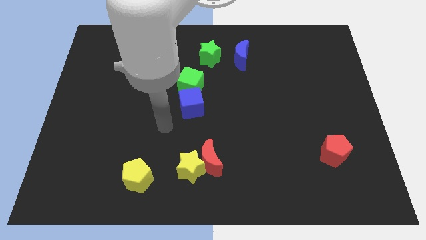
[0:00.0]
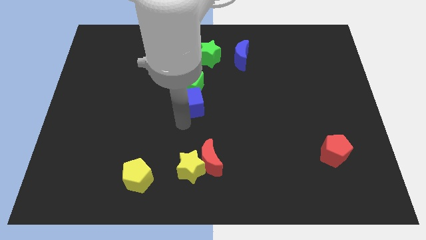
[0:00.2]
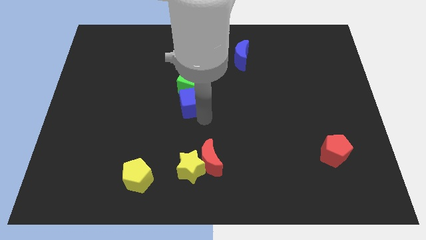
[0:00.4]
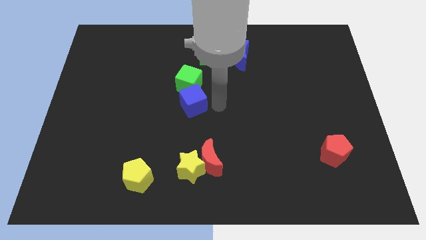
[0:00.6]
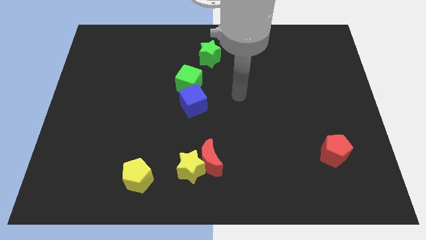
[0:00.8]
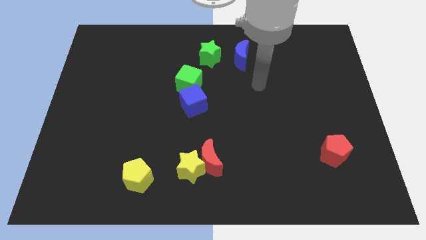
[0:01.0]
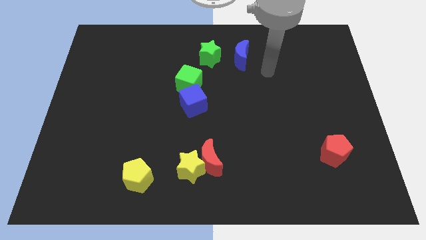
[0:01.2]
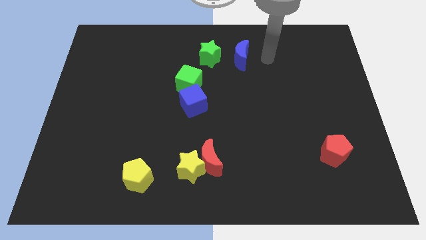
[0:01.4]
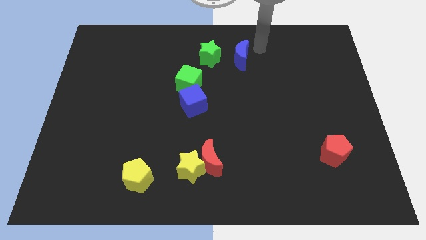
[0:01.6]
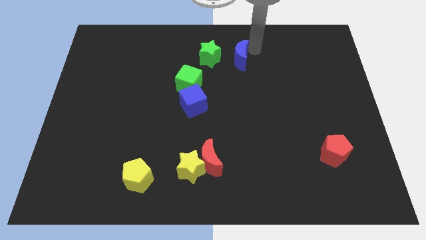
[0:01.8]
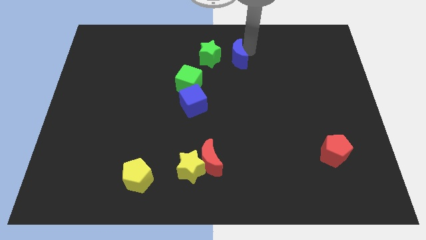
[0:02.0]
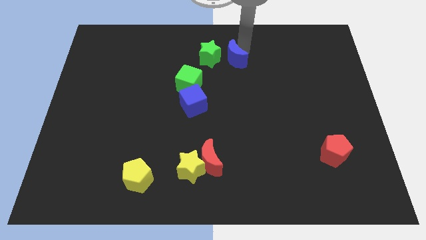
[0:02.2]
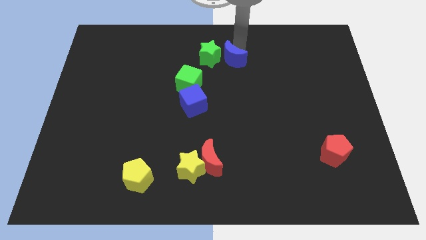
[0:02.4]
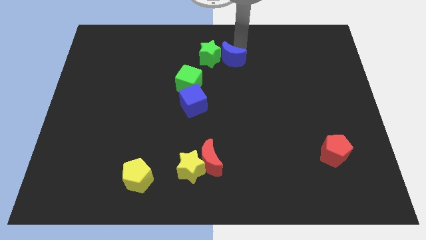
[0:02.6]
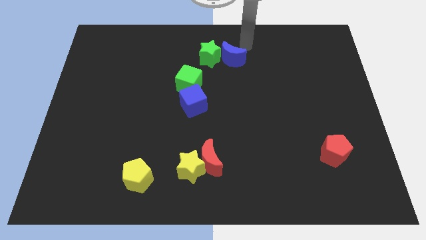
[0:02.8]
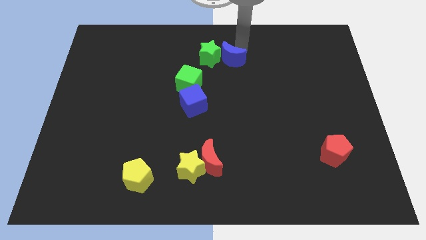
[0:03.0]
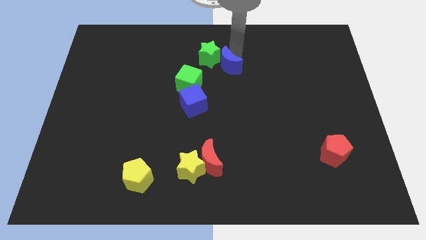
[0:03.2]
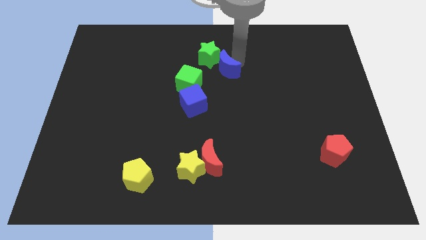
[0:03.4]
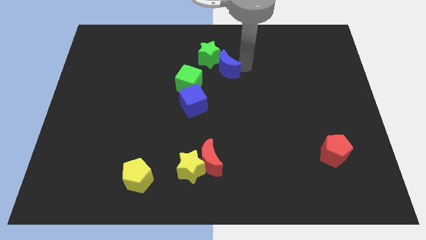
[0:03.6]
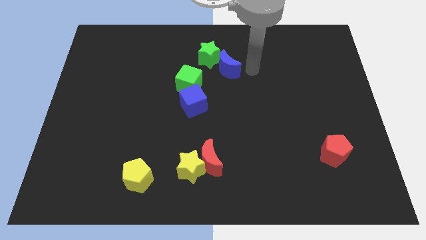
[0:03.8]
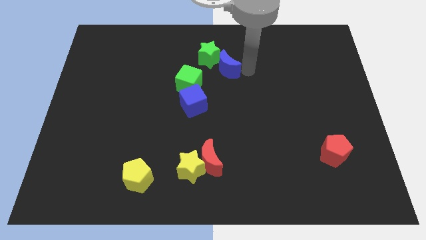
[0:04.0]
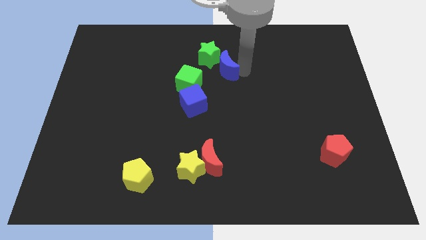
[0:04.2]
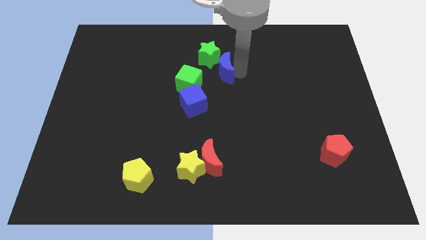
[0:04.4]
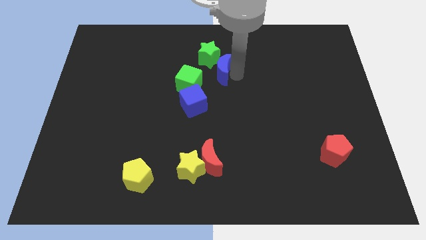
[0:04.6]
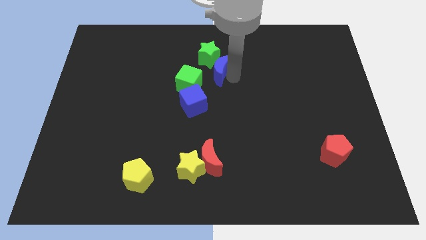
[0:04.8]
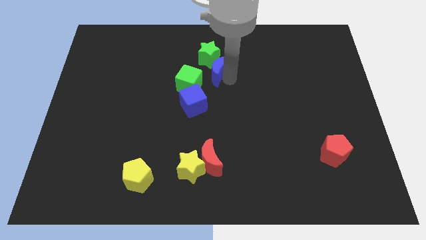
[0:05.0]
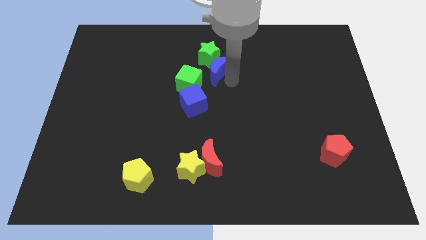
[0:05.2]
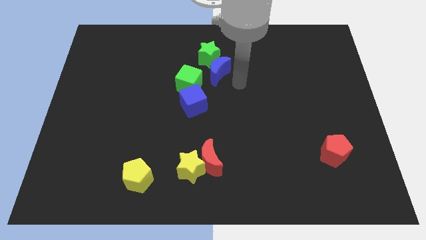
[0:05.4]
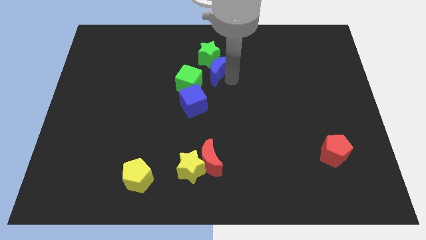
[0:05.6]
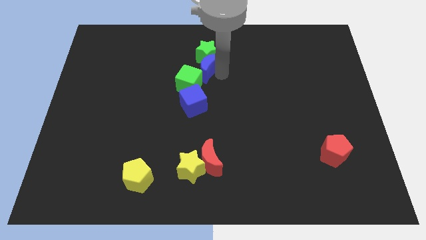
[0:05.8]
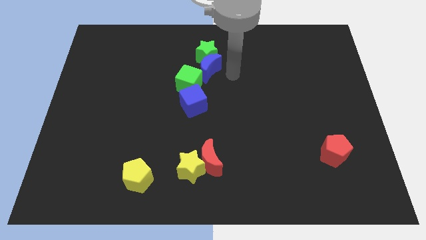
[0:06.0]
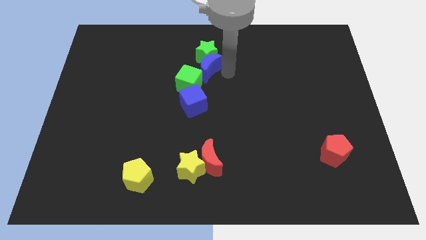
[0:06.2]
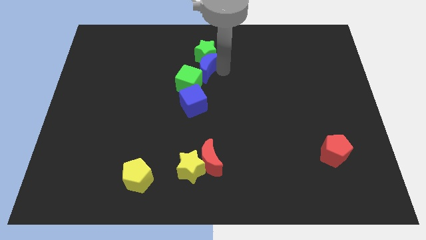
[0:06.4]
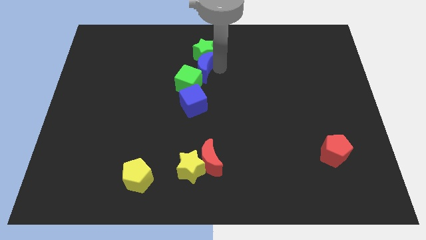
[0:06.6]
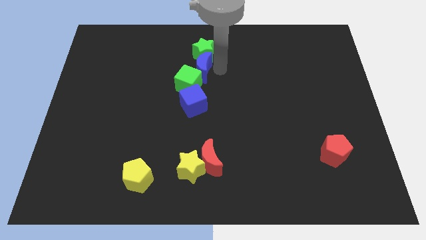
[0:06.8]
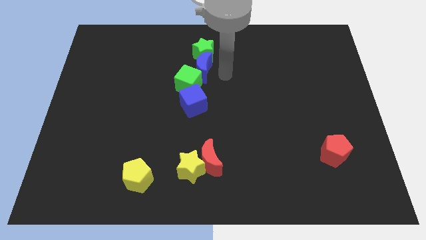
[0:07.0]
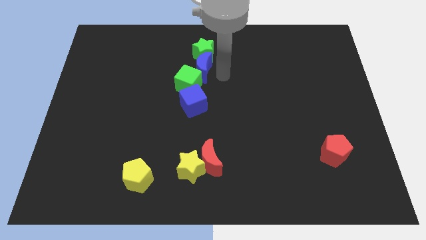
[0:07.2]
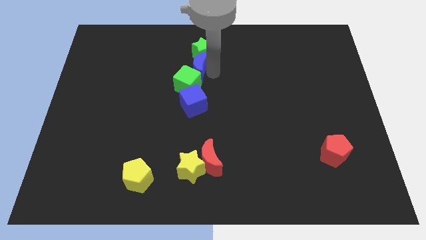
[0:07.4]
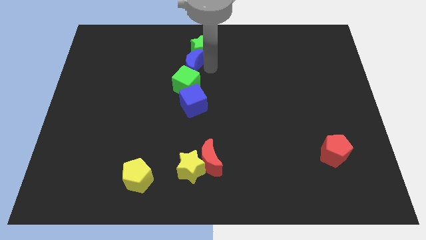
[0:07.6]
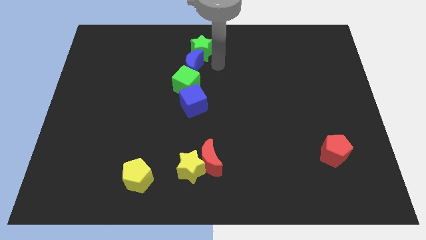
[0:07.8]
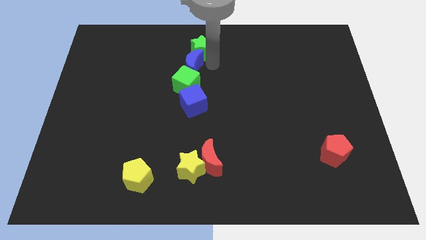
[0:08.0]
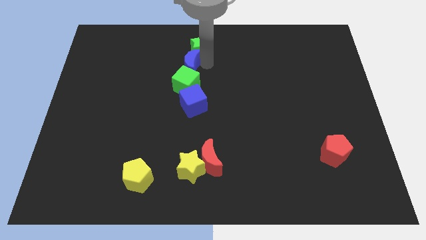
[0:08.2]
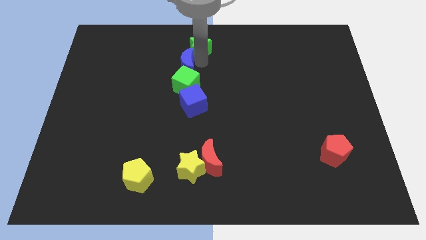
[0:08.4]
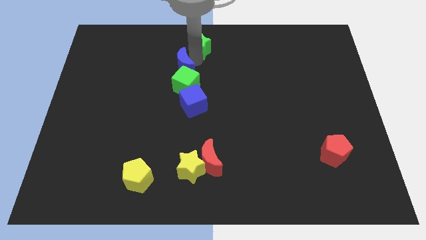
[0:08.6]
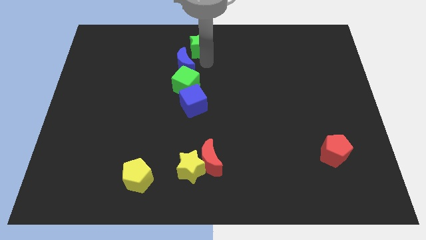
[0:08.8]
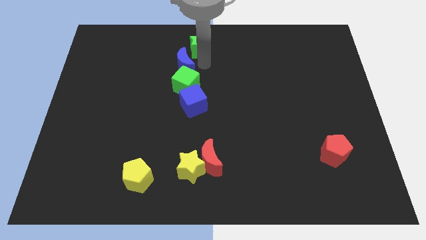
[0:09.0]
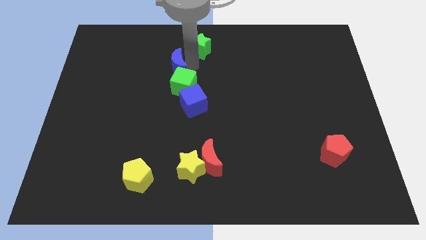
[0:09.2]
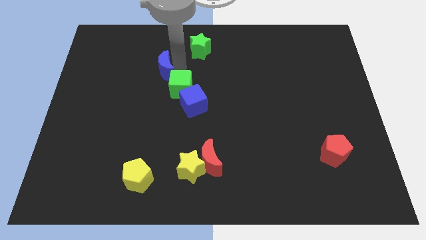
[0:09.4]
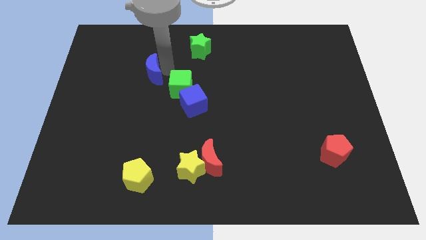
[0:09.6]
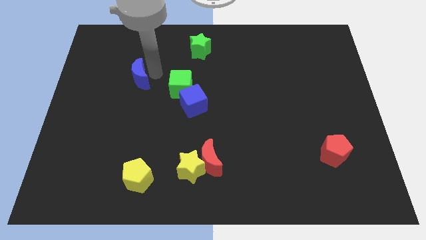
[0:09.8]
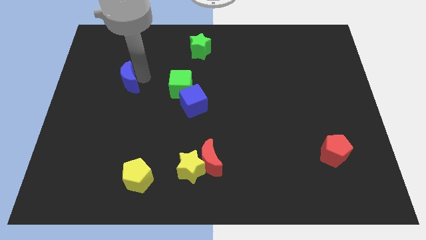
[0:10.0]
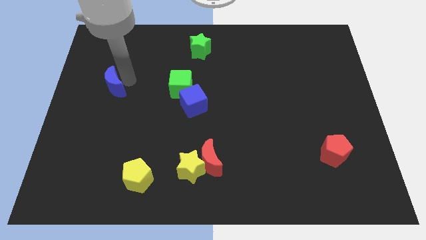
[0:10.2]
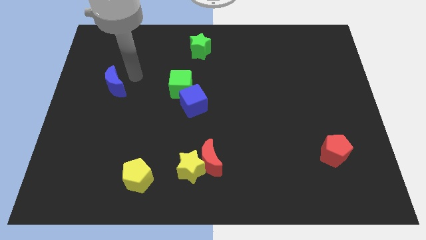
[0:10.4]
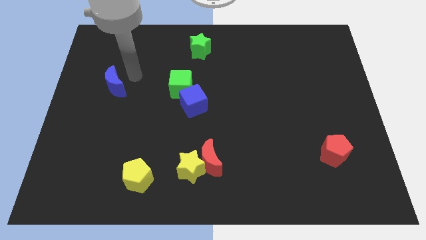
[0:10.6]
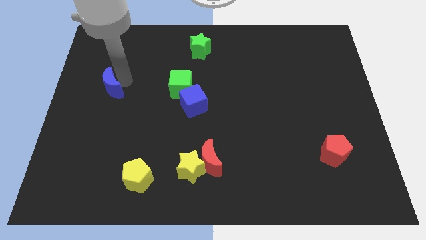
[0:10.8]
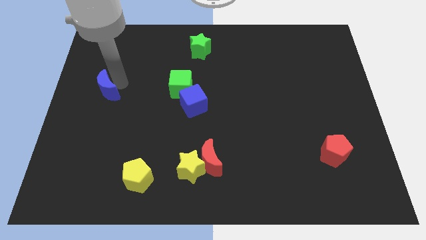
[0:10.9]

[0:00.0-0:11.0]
slide the blue moon to the left side

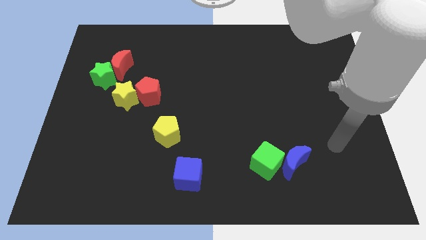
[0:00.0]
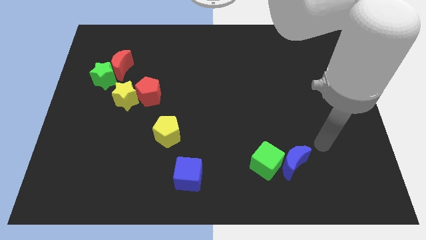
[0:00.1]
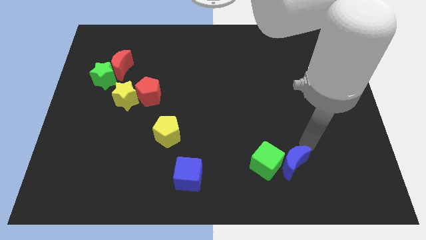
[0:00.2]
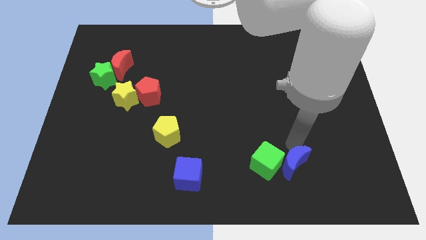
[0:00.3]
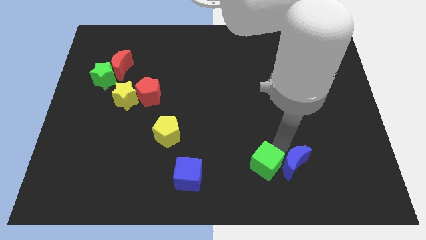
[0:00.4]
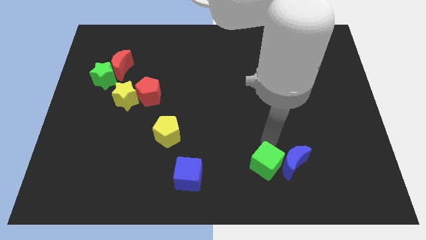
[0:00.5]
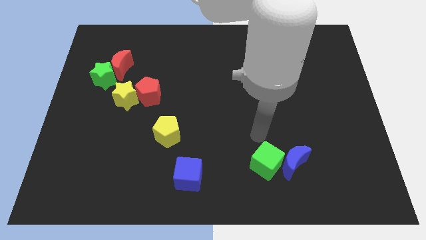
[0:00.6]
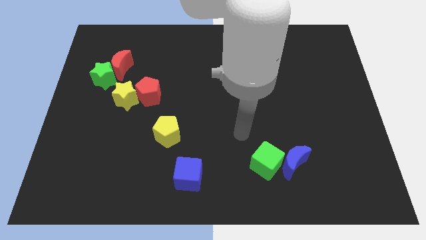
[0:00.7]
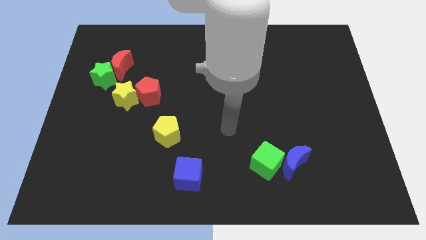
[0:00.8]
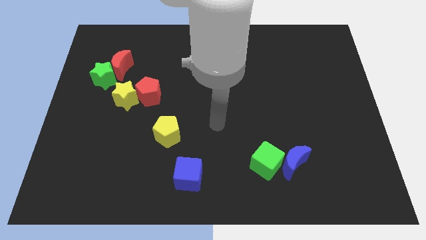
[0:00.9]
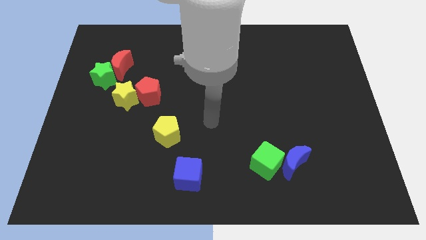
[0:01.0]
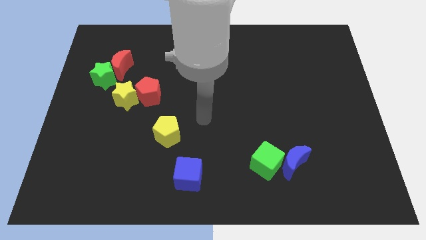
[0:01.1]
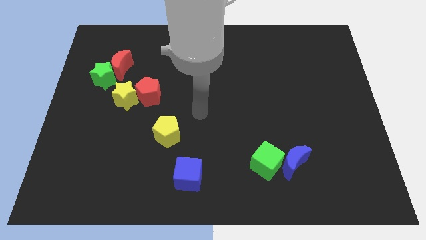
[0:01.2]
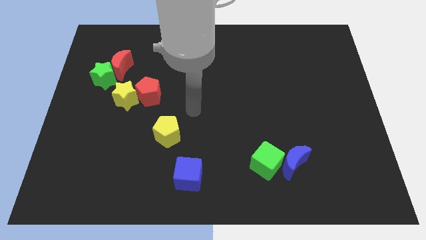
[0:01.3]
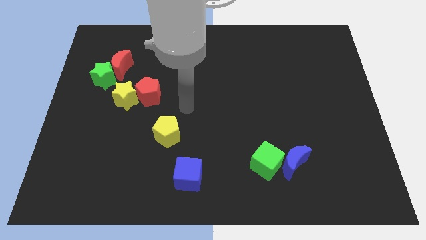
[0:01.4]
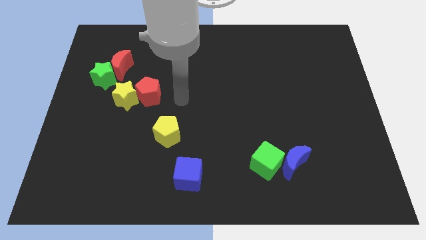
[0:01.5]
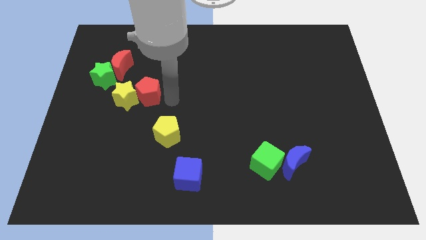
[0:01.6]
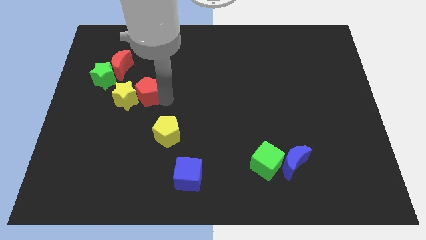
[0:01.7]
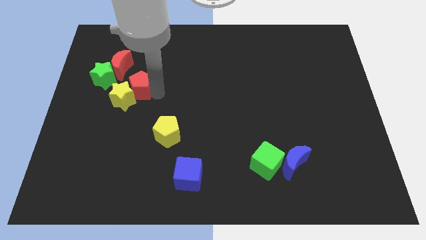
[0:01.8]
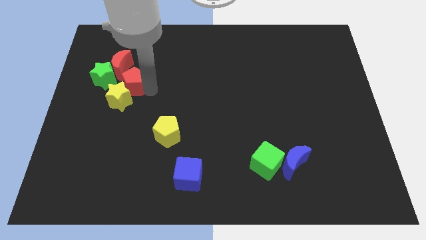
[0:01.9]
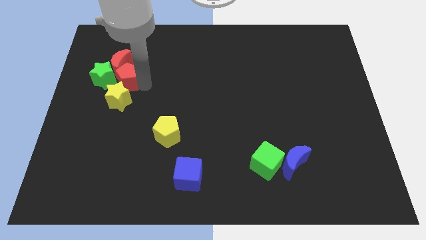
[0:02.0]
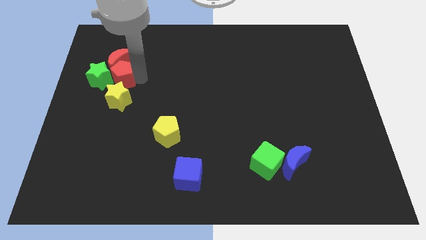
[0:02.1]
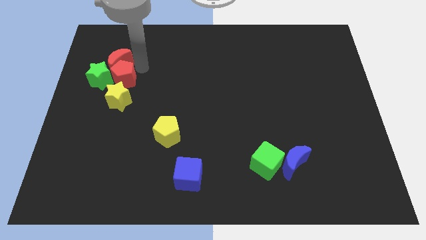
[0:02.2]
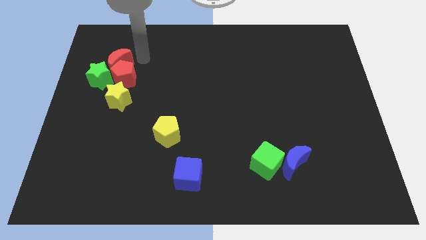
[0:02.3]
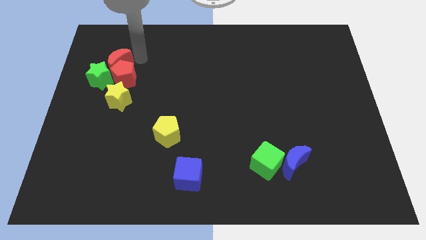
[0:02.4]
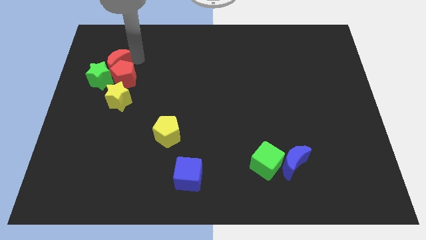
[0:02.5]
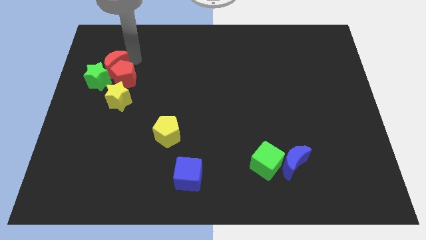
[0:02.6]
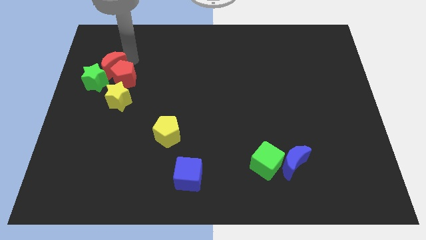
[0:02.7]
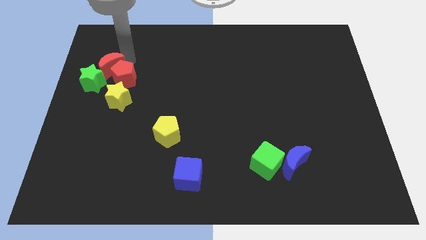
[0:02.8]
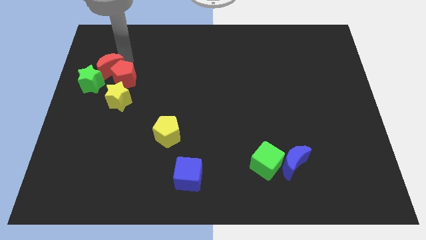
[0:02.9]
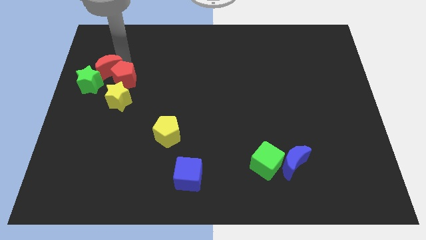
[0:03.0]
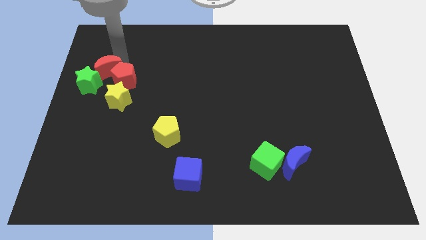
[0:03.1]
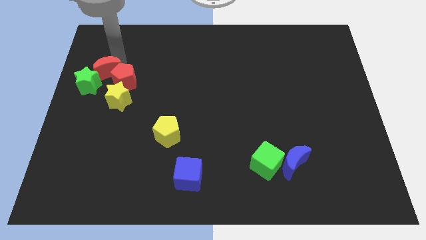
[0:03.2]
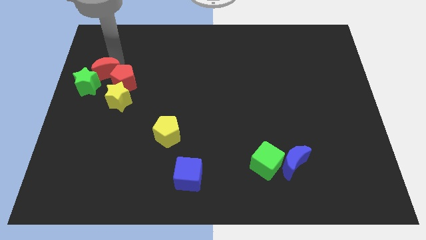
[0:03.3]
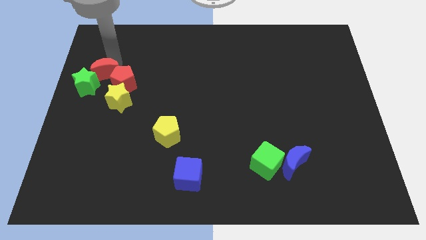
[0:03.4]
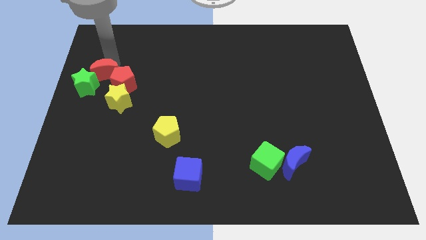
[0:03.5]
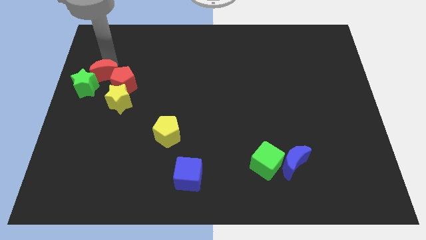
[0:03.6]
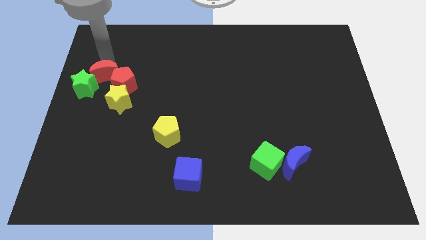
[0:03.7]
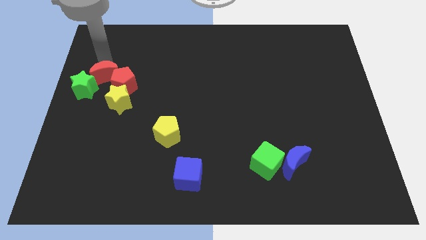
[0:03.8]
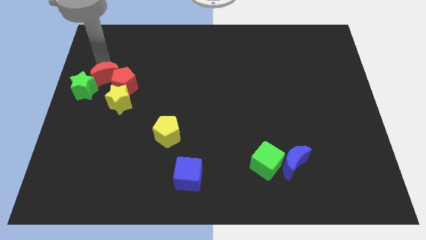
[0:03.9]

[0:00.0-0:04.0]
move the red moon to the left side of the board
